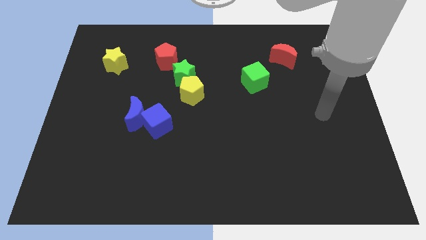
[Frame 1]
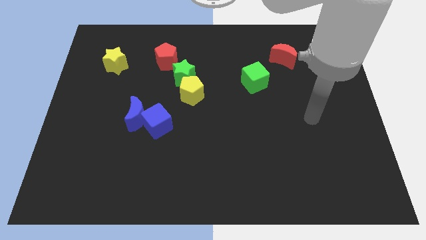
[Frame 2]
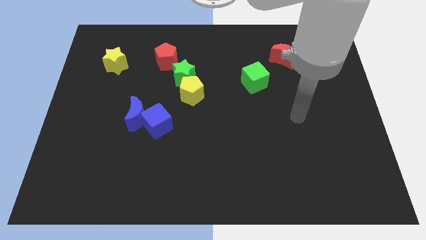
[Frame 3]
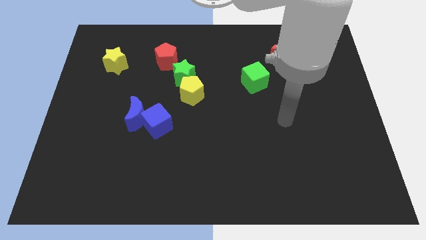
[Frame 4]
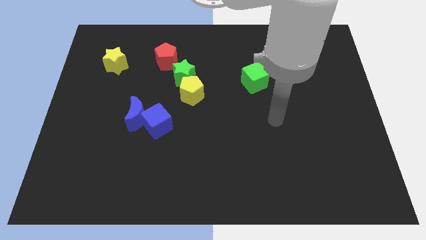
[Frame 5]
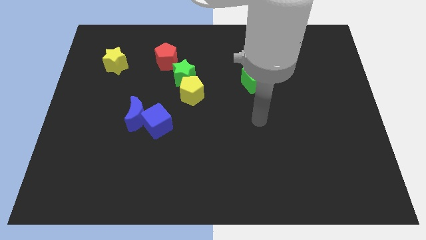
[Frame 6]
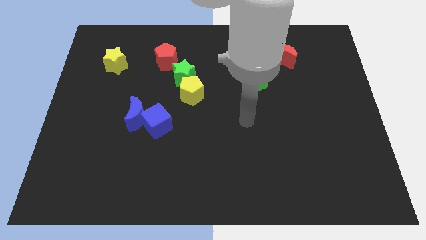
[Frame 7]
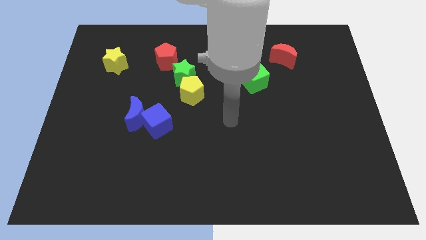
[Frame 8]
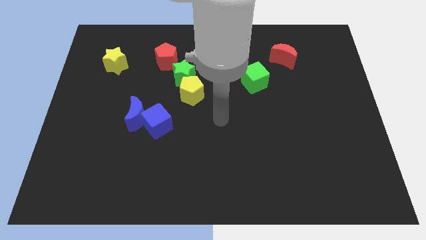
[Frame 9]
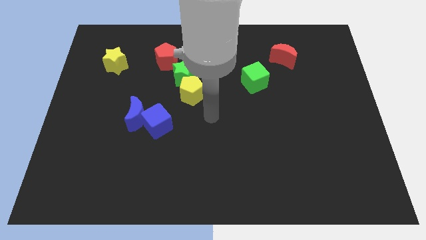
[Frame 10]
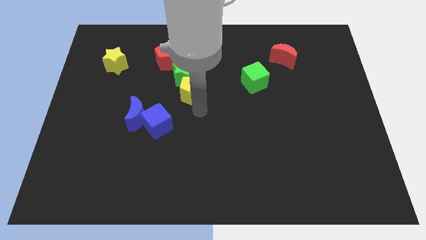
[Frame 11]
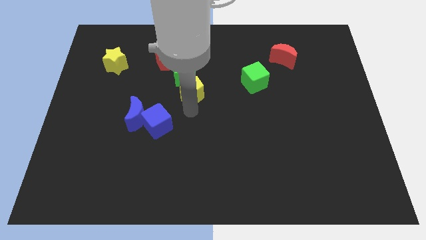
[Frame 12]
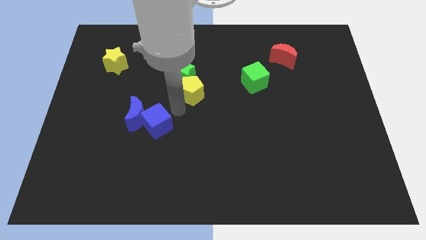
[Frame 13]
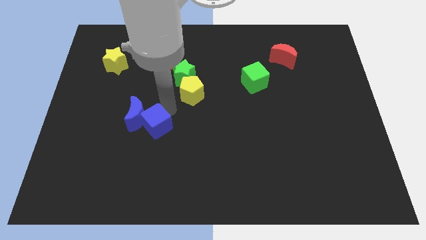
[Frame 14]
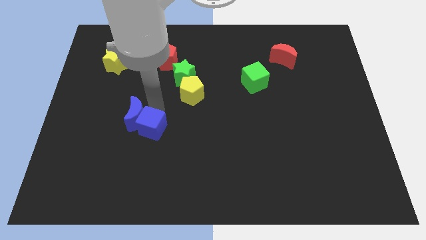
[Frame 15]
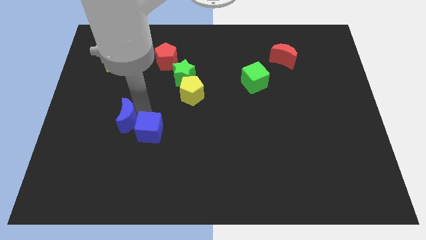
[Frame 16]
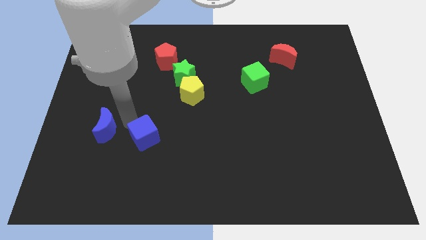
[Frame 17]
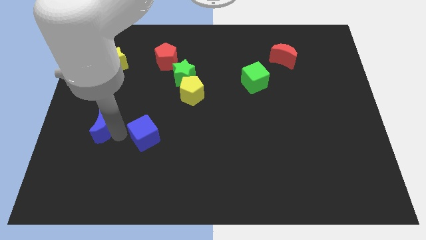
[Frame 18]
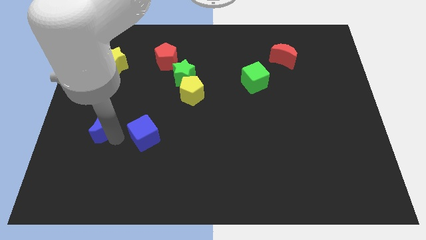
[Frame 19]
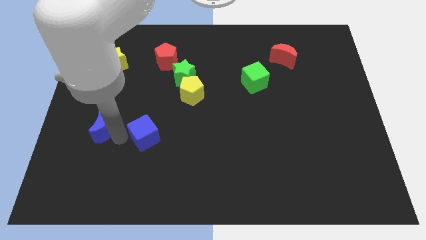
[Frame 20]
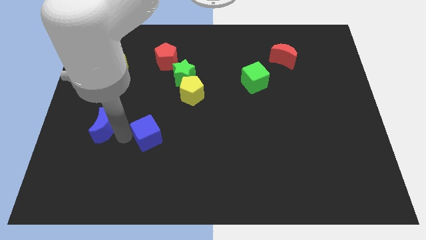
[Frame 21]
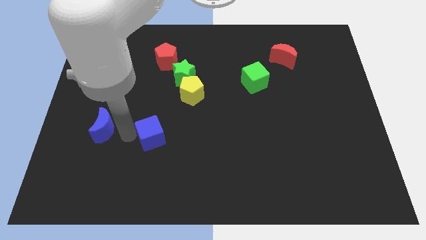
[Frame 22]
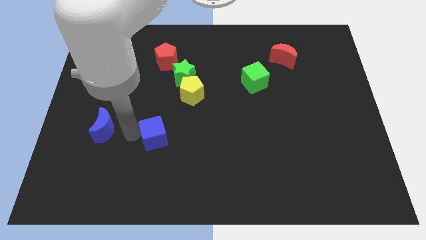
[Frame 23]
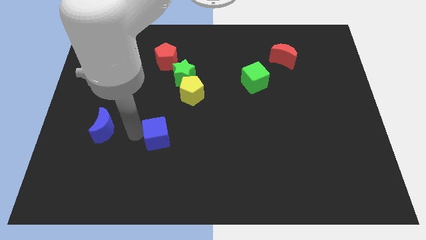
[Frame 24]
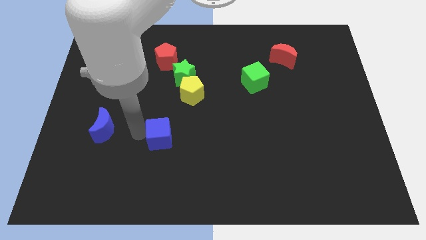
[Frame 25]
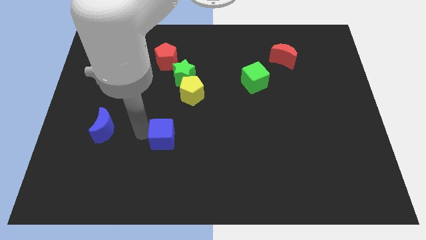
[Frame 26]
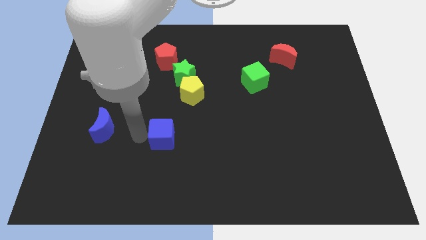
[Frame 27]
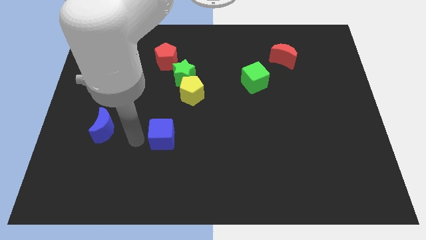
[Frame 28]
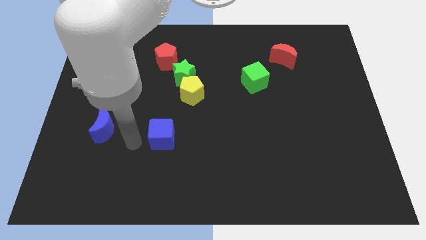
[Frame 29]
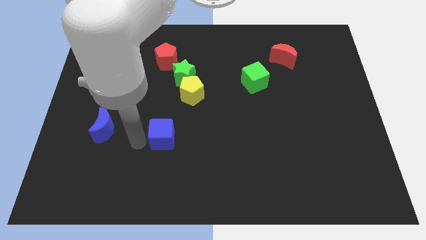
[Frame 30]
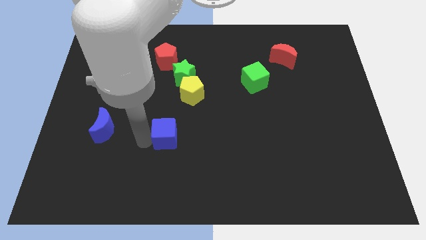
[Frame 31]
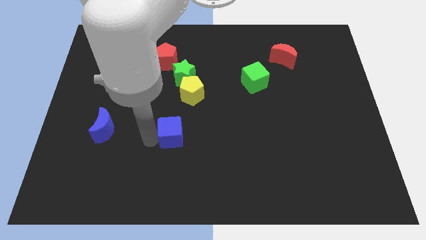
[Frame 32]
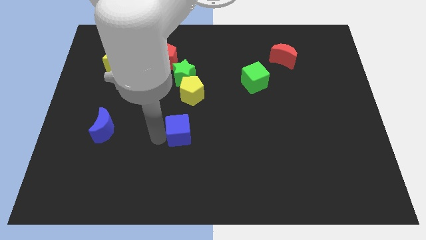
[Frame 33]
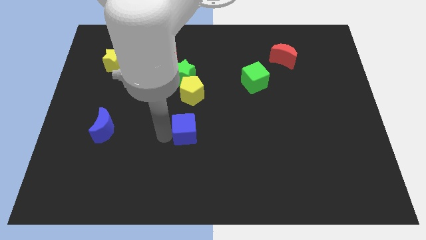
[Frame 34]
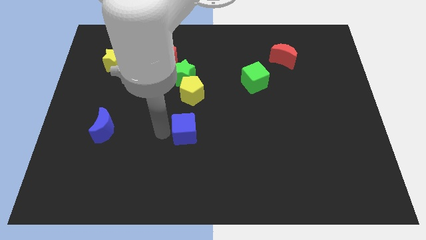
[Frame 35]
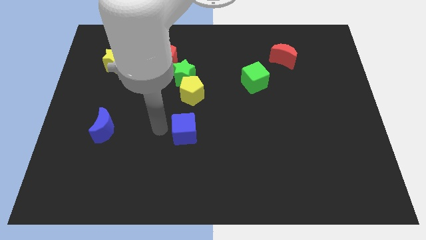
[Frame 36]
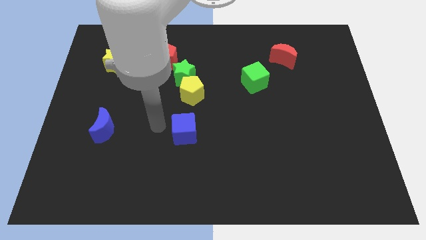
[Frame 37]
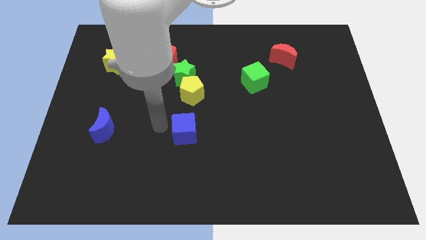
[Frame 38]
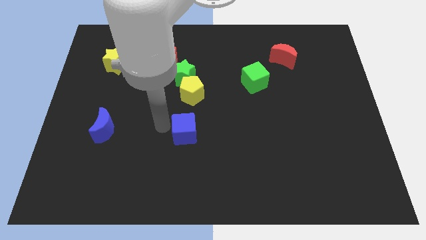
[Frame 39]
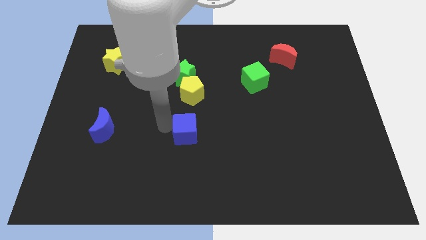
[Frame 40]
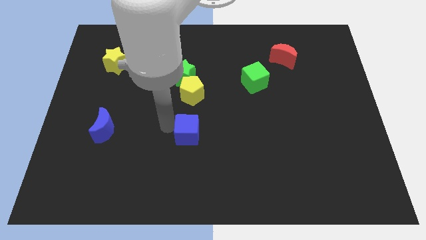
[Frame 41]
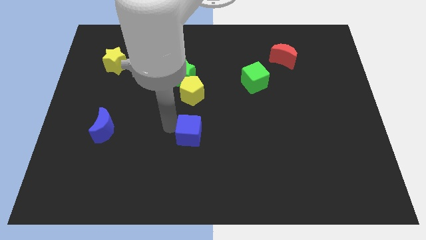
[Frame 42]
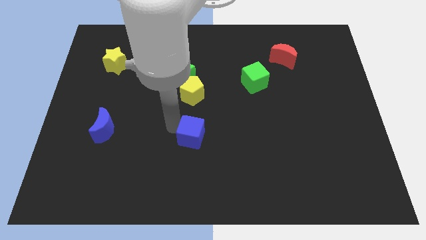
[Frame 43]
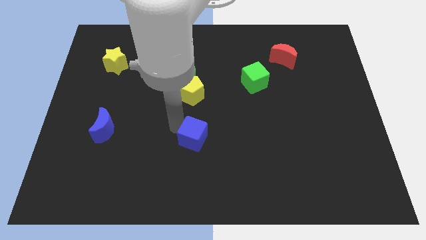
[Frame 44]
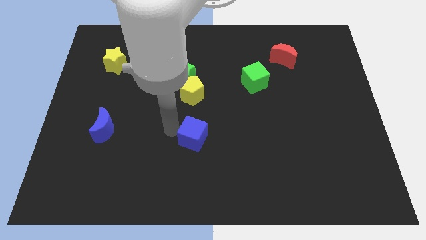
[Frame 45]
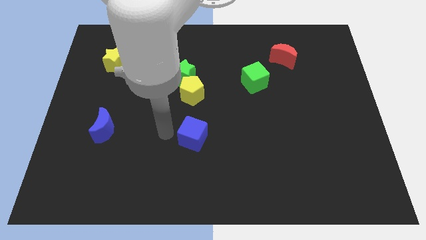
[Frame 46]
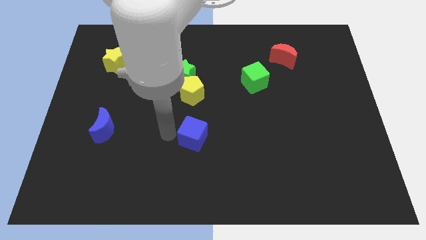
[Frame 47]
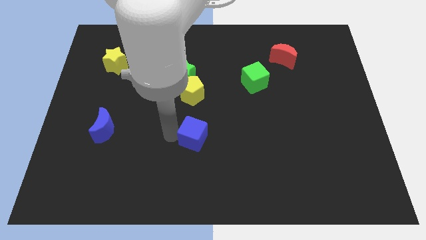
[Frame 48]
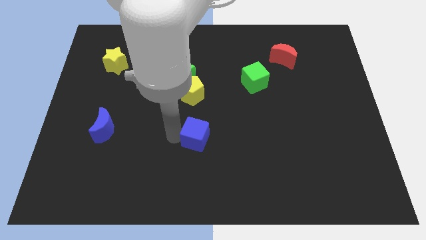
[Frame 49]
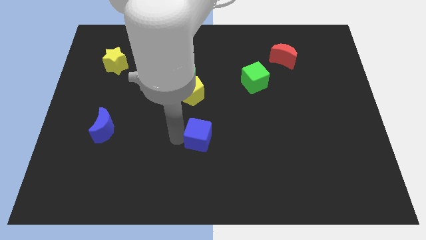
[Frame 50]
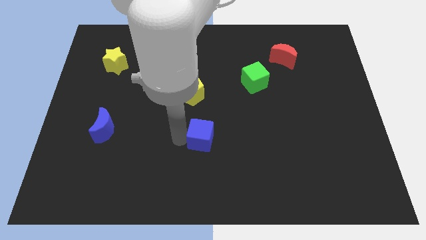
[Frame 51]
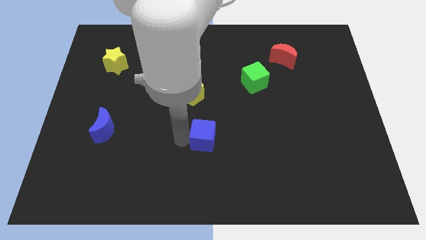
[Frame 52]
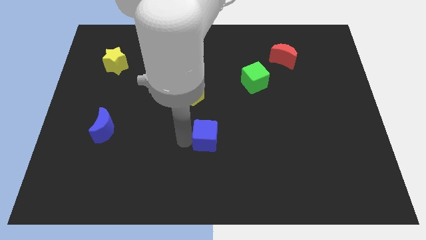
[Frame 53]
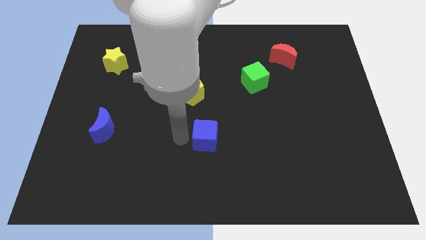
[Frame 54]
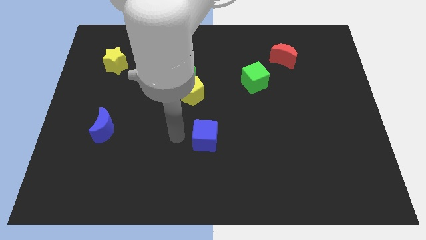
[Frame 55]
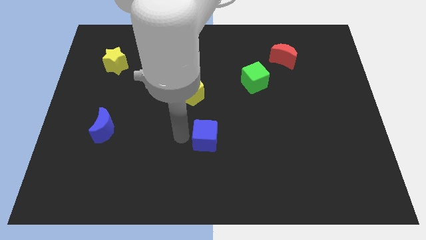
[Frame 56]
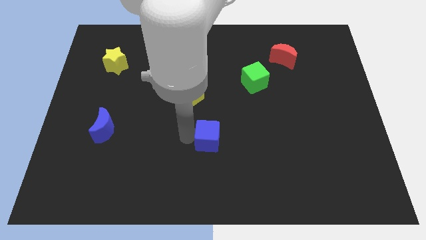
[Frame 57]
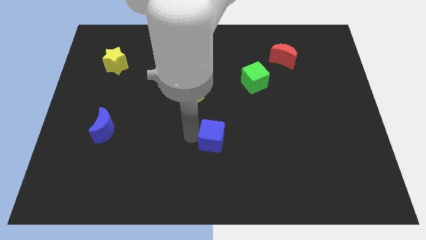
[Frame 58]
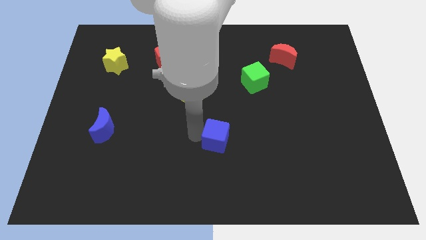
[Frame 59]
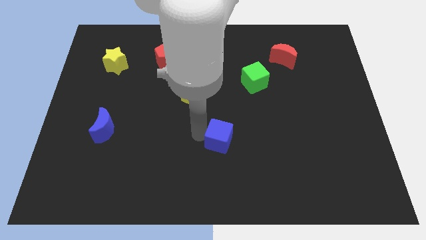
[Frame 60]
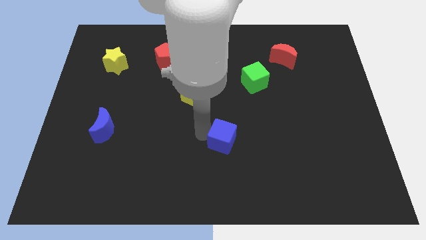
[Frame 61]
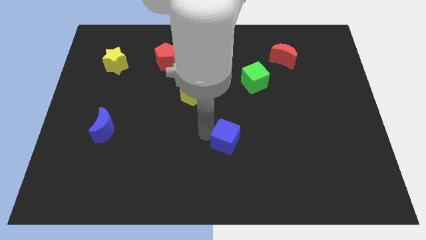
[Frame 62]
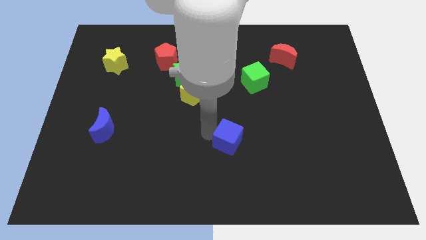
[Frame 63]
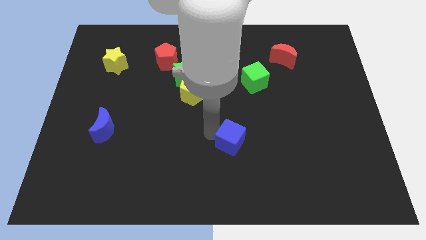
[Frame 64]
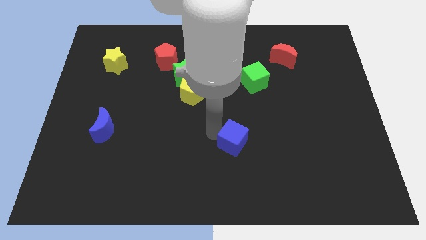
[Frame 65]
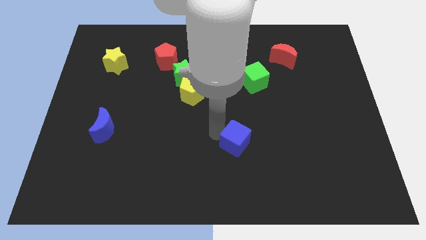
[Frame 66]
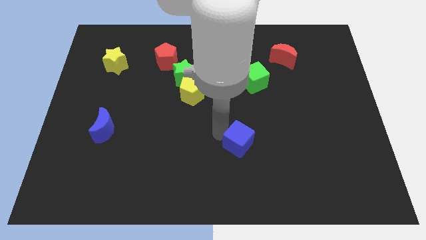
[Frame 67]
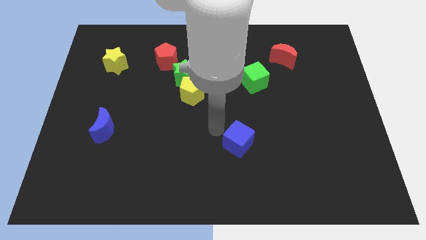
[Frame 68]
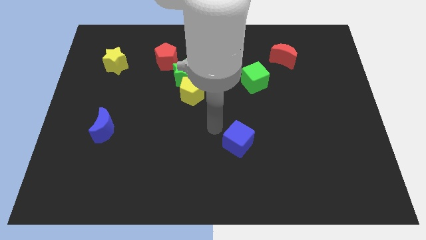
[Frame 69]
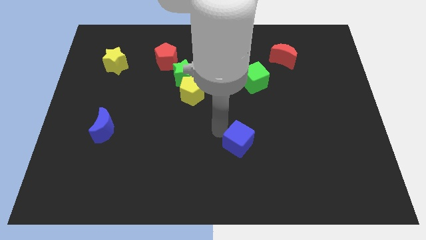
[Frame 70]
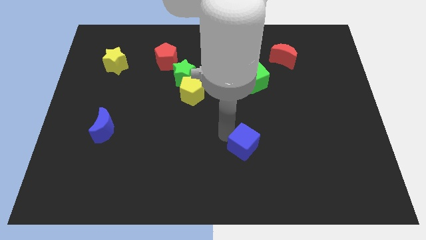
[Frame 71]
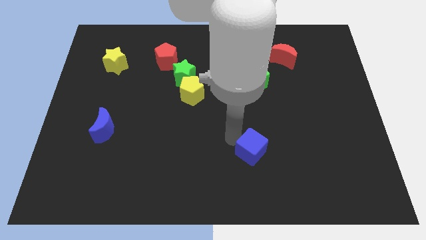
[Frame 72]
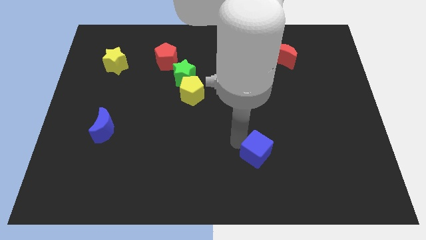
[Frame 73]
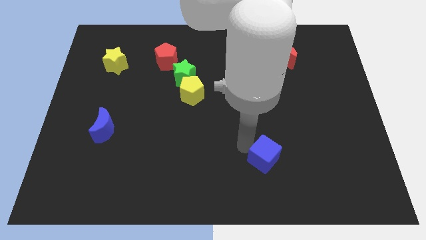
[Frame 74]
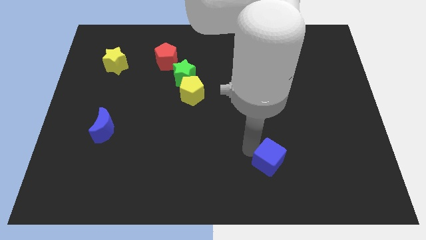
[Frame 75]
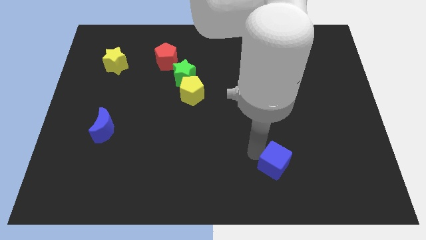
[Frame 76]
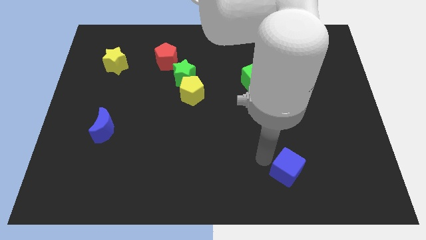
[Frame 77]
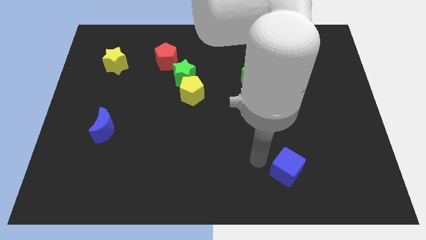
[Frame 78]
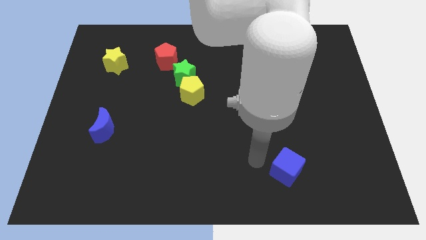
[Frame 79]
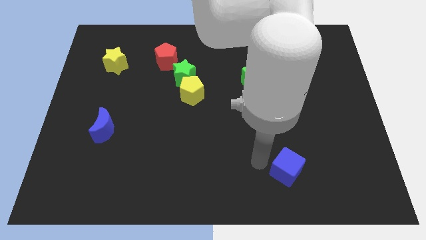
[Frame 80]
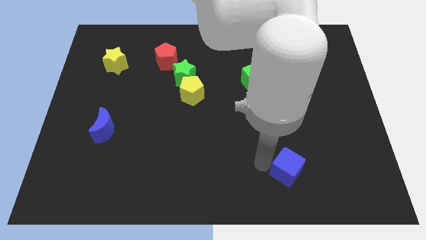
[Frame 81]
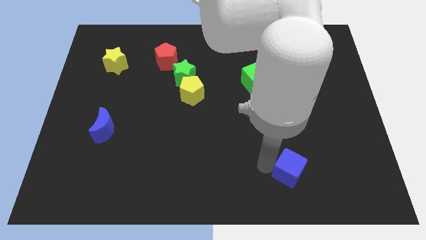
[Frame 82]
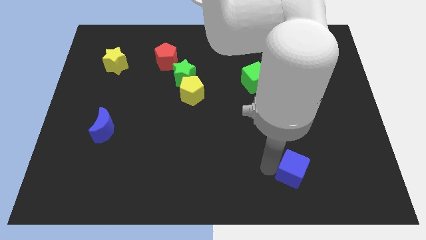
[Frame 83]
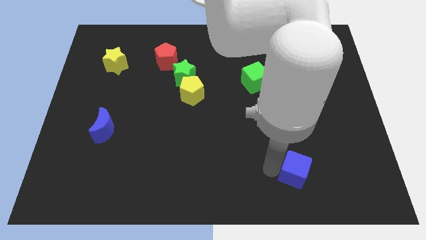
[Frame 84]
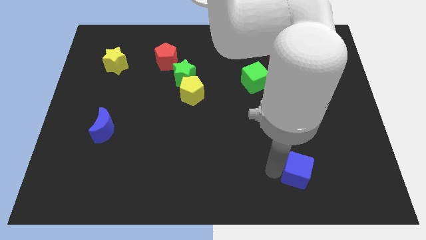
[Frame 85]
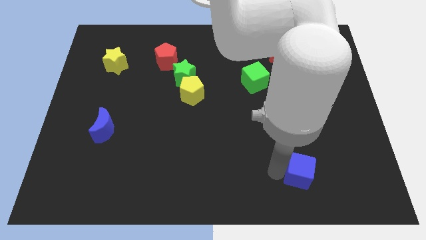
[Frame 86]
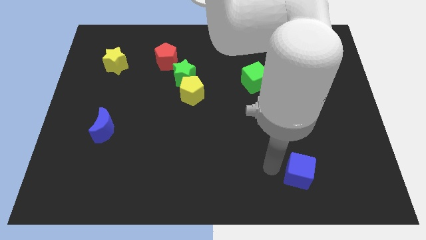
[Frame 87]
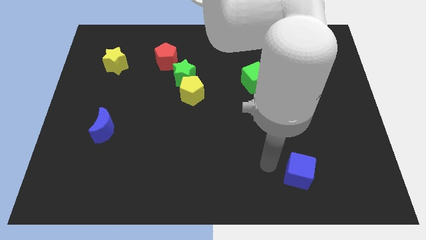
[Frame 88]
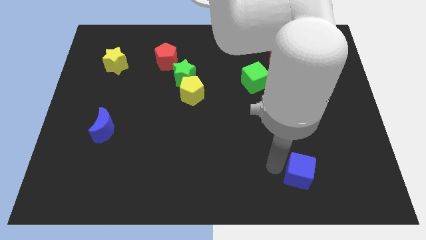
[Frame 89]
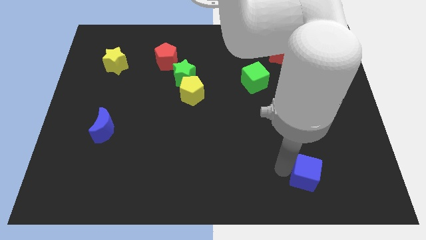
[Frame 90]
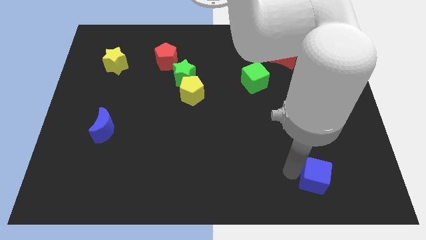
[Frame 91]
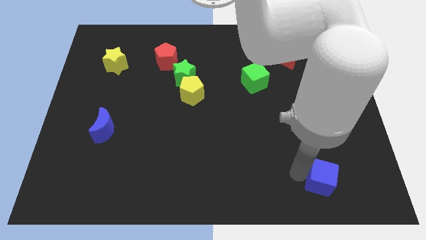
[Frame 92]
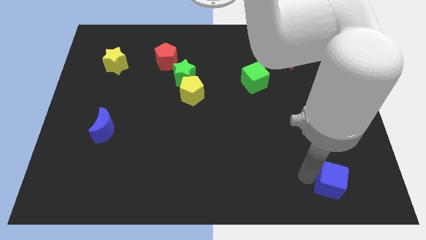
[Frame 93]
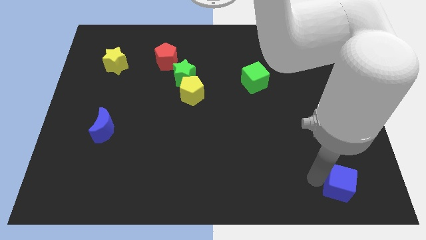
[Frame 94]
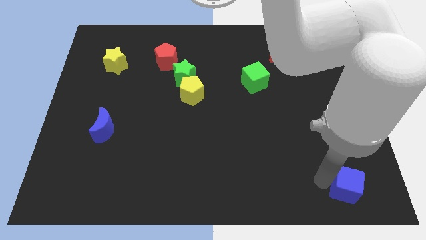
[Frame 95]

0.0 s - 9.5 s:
move the blue cube to the bottom right of the board
